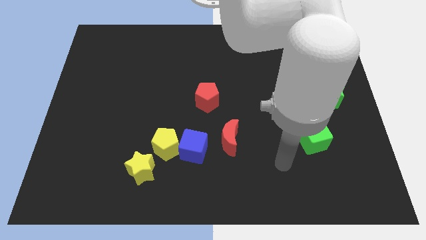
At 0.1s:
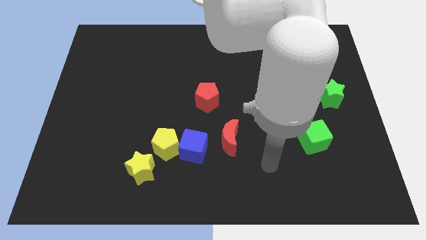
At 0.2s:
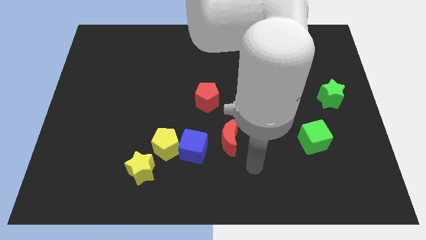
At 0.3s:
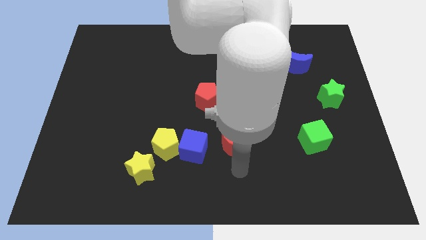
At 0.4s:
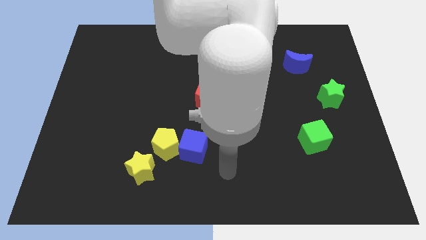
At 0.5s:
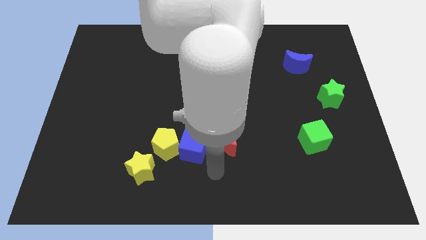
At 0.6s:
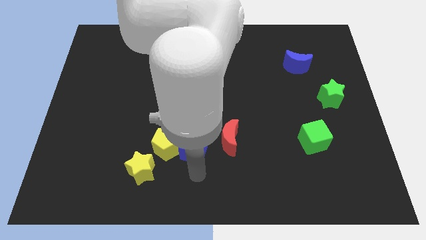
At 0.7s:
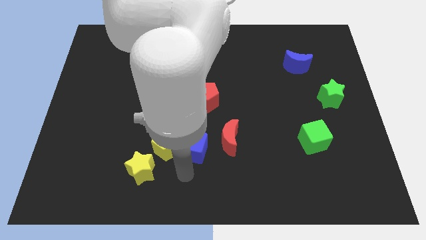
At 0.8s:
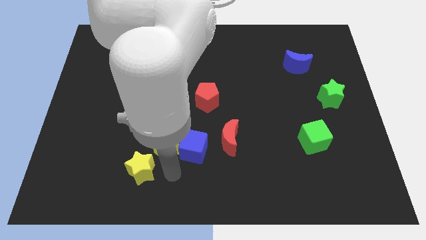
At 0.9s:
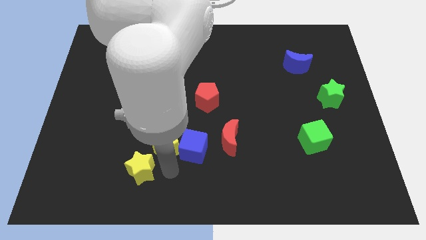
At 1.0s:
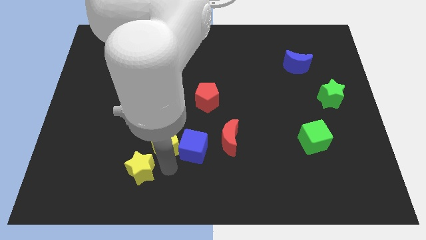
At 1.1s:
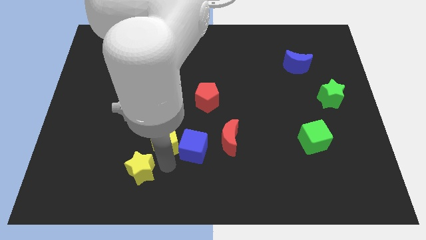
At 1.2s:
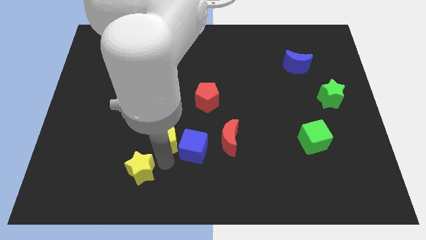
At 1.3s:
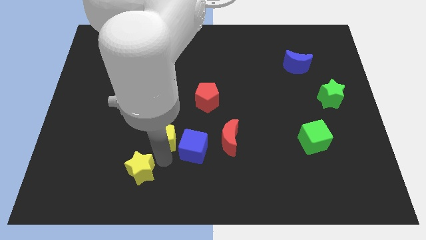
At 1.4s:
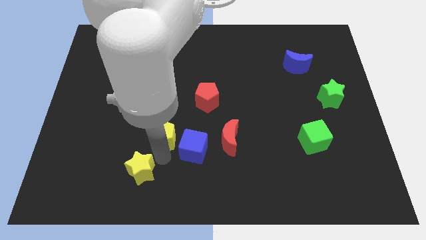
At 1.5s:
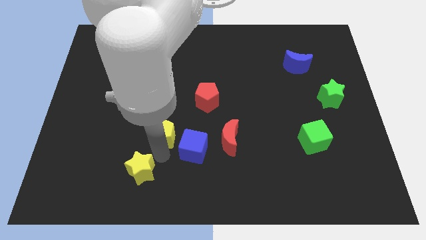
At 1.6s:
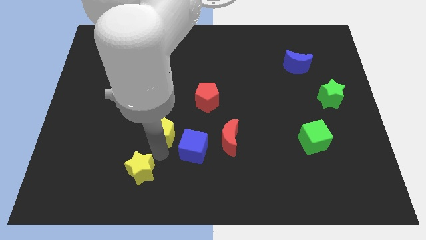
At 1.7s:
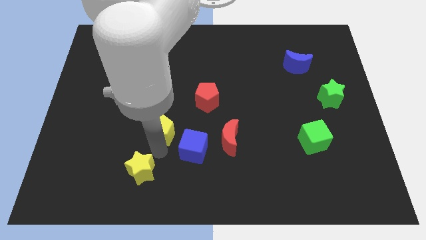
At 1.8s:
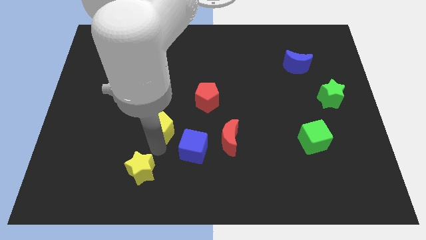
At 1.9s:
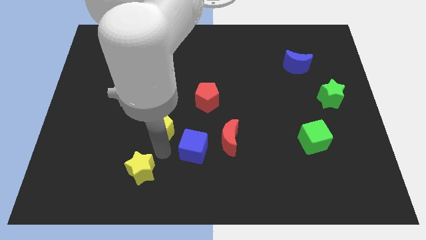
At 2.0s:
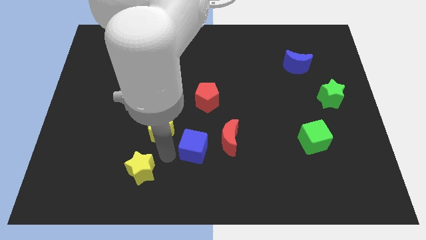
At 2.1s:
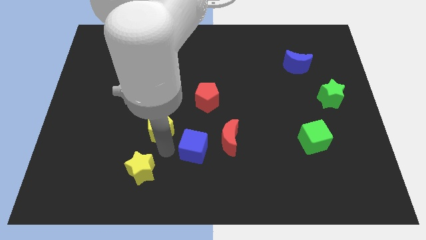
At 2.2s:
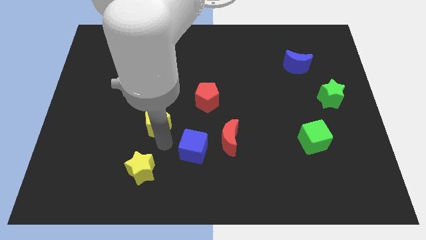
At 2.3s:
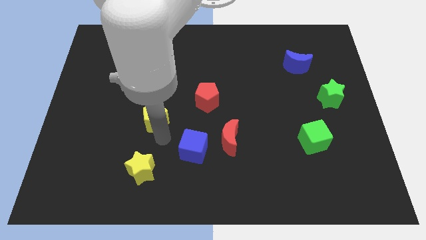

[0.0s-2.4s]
separate the yellow pentagon from the blue cube and yellow star

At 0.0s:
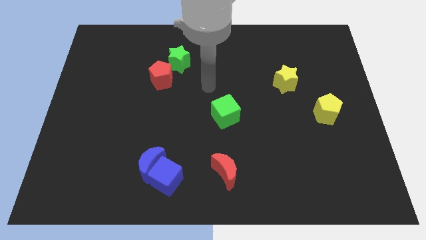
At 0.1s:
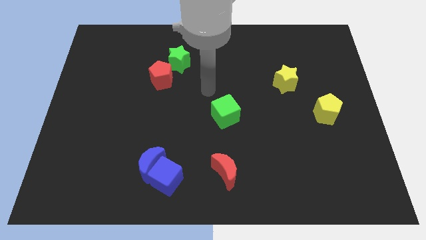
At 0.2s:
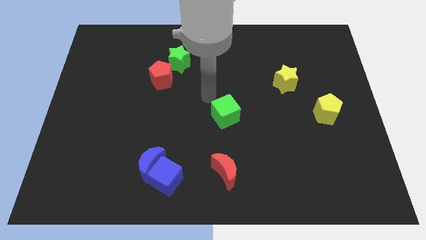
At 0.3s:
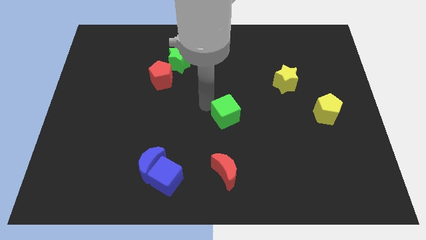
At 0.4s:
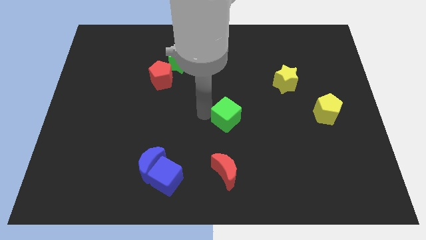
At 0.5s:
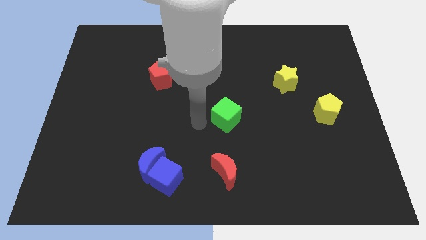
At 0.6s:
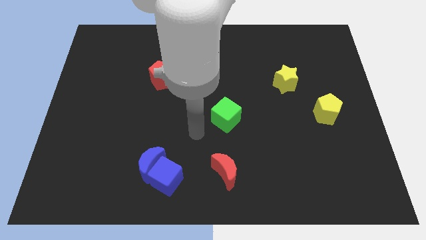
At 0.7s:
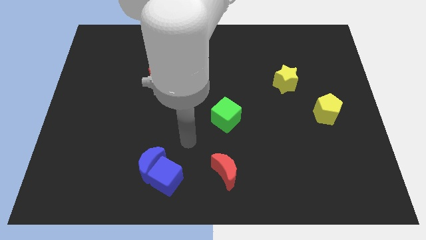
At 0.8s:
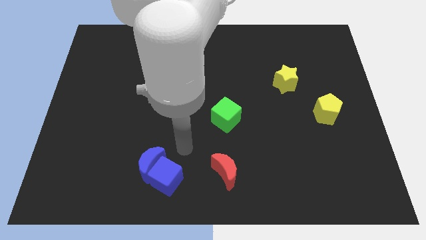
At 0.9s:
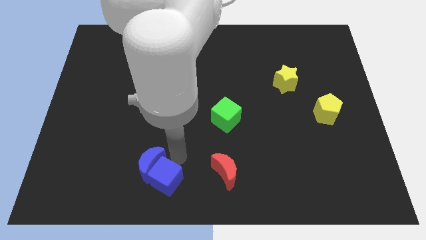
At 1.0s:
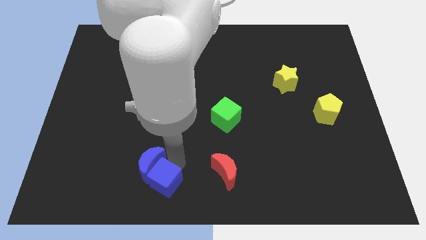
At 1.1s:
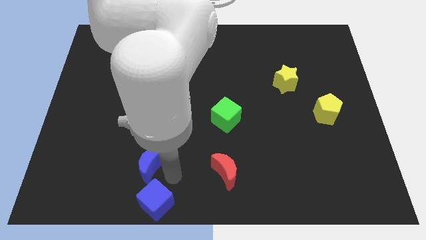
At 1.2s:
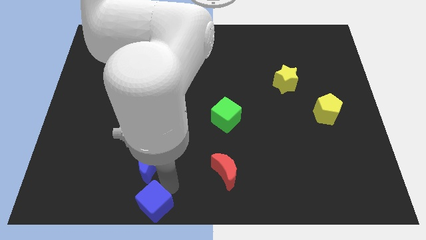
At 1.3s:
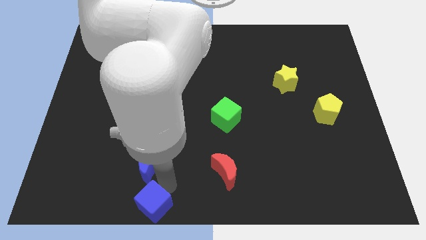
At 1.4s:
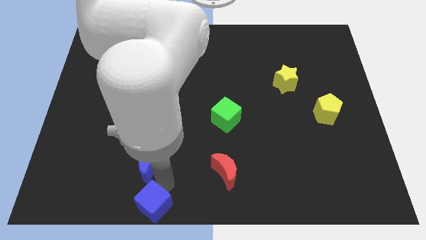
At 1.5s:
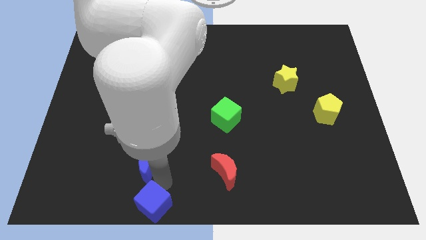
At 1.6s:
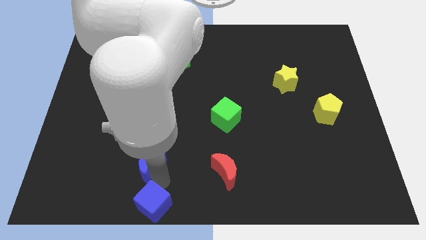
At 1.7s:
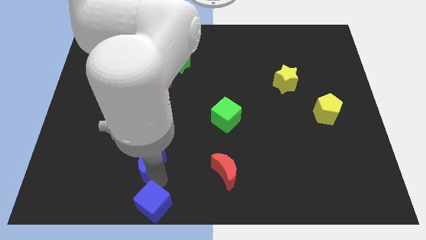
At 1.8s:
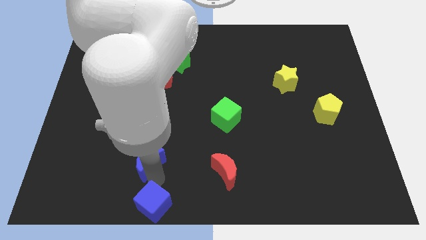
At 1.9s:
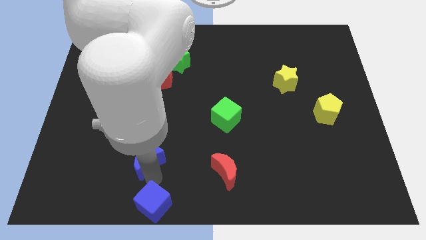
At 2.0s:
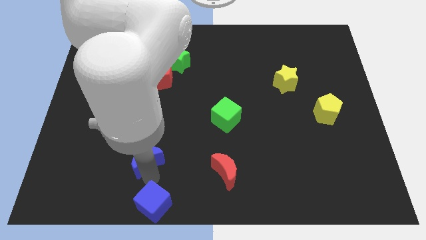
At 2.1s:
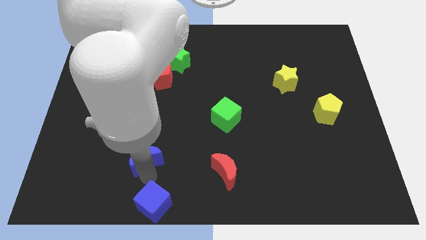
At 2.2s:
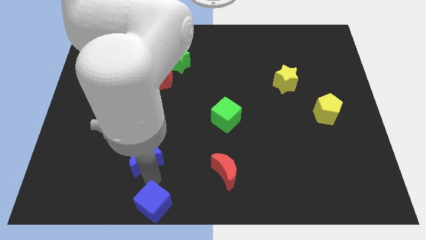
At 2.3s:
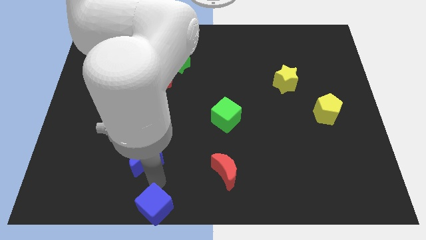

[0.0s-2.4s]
separate the blue moon from the blue cube

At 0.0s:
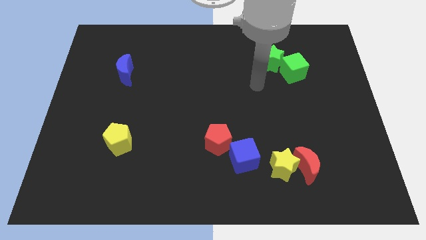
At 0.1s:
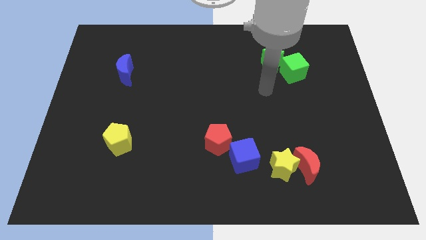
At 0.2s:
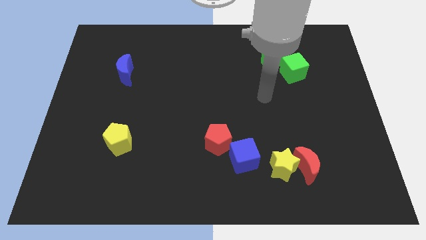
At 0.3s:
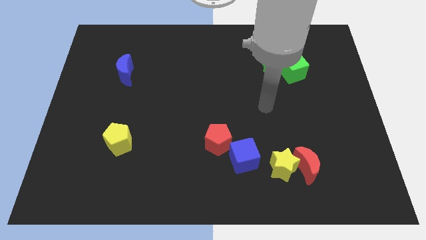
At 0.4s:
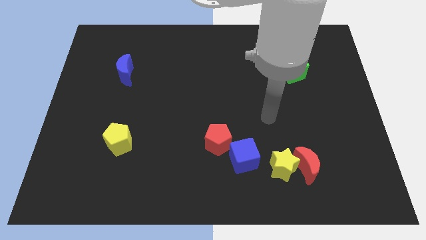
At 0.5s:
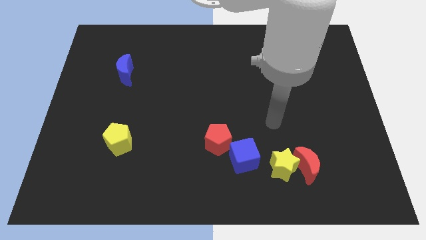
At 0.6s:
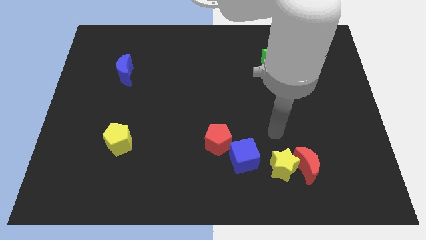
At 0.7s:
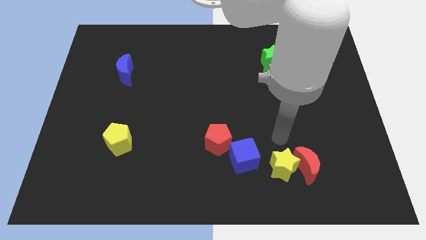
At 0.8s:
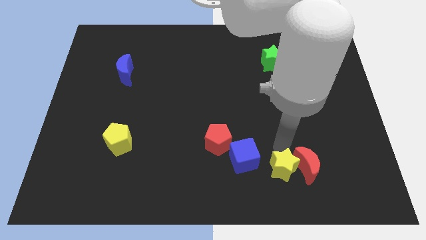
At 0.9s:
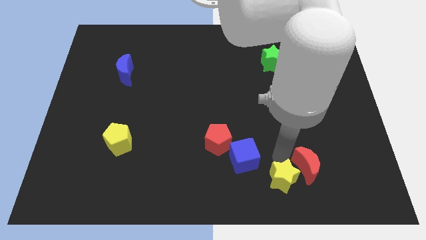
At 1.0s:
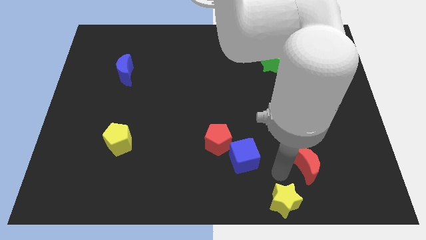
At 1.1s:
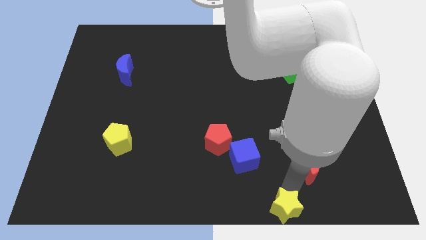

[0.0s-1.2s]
separate the red moon from the yellow star

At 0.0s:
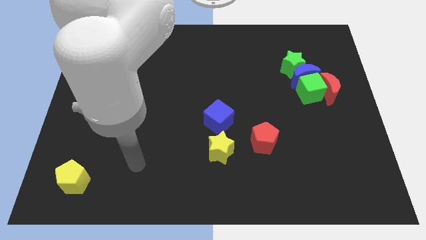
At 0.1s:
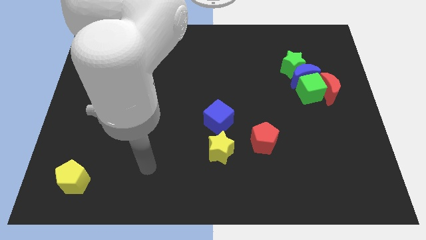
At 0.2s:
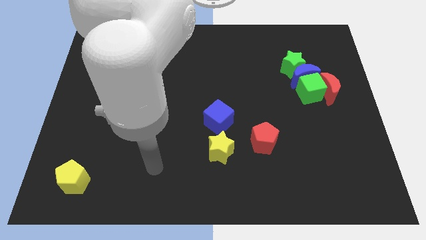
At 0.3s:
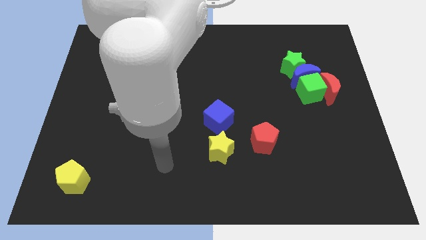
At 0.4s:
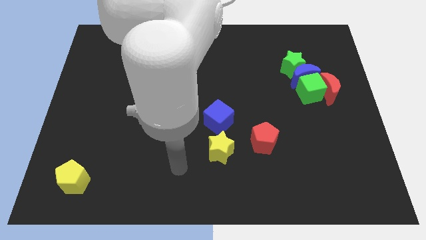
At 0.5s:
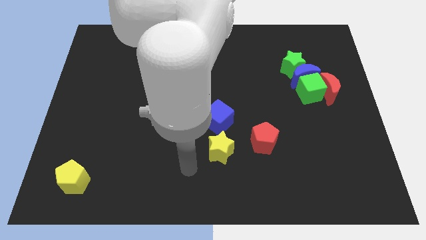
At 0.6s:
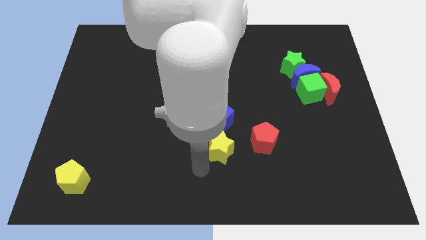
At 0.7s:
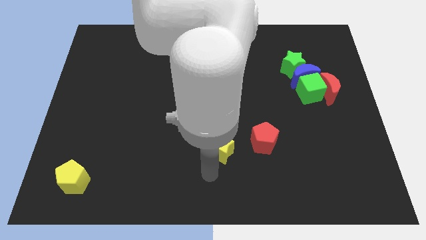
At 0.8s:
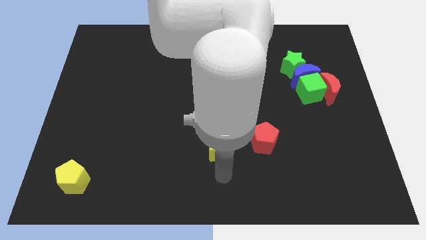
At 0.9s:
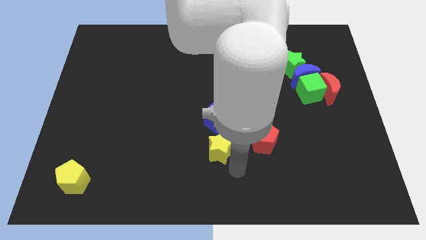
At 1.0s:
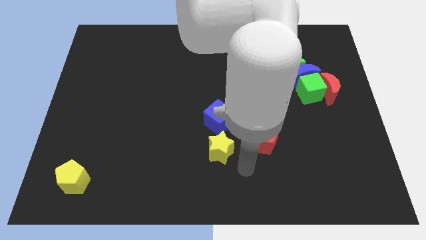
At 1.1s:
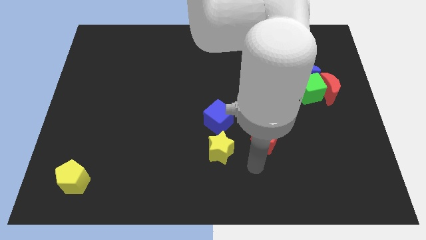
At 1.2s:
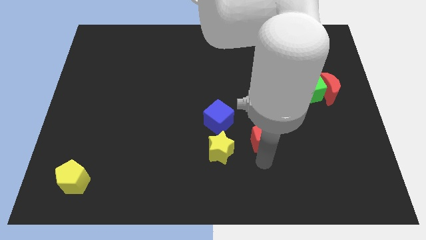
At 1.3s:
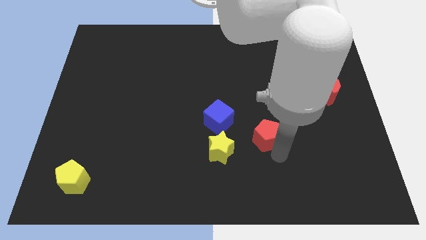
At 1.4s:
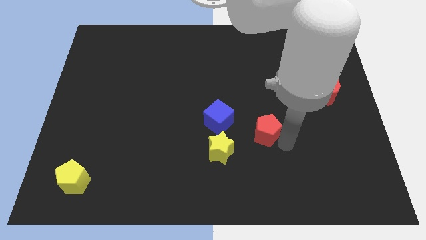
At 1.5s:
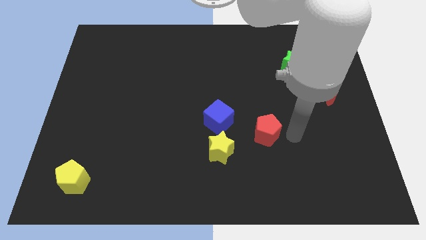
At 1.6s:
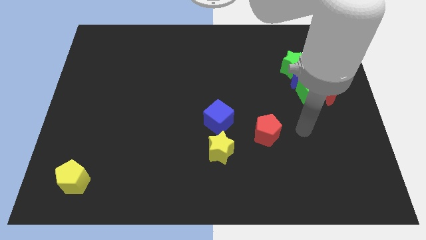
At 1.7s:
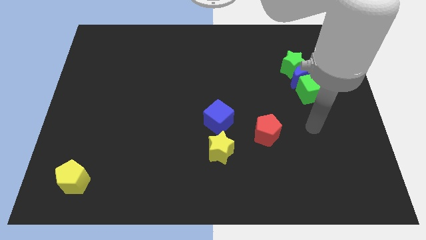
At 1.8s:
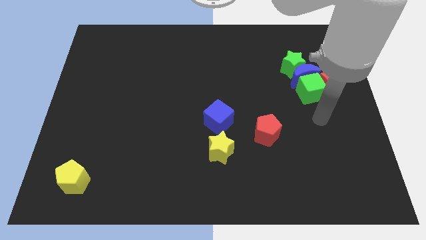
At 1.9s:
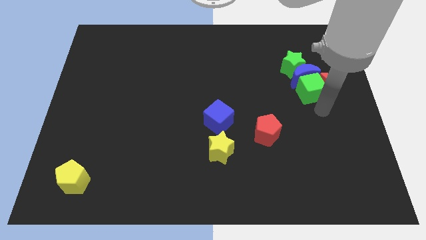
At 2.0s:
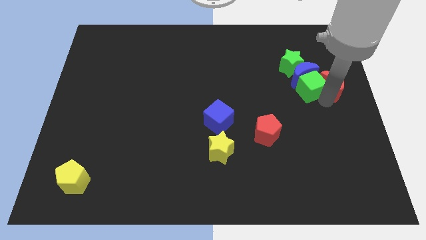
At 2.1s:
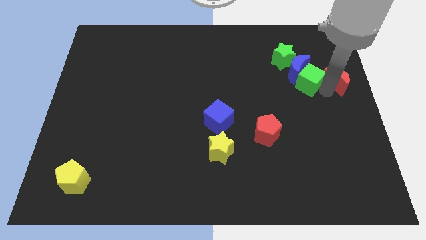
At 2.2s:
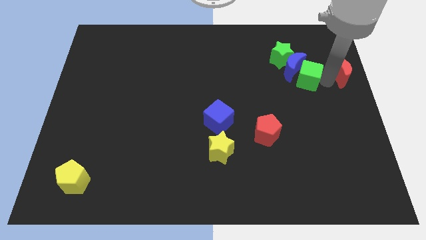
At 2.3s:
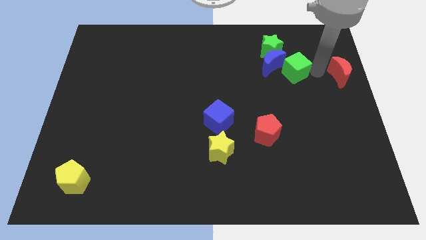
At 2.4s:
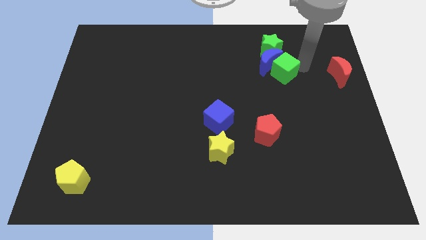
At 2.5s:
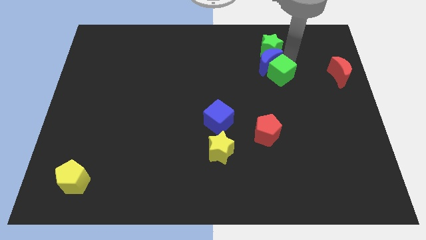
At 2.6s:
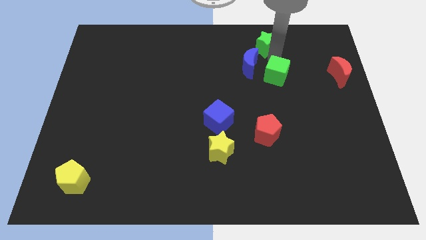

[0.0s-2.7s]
separate the blue moon from the clump

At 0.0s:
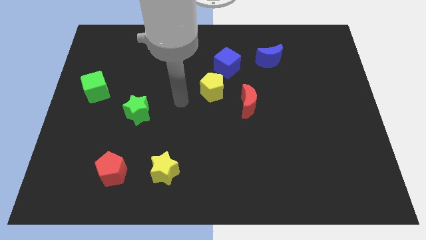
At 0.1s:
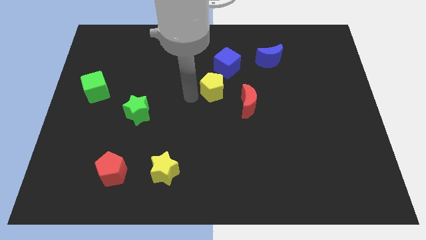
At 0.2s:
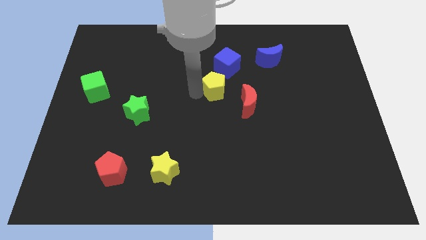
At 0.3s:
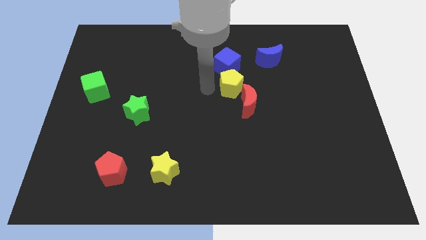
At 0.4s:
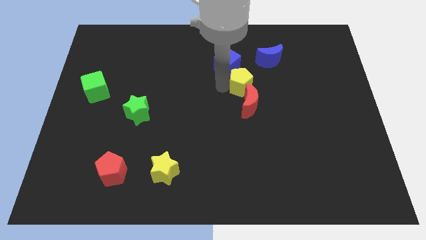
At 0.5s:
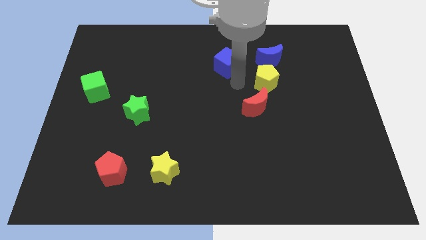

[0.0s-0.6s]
separate the blue cube from the yellow pentagon
